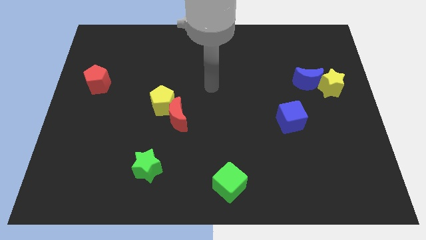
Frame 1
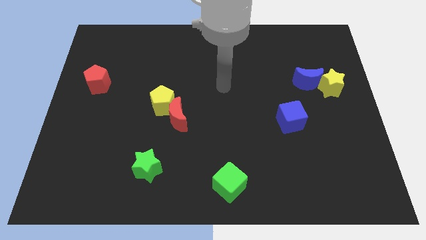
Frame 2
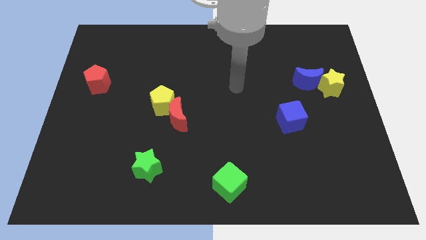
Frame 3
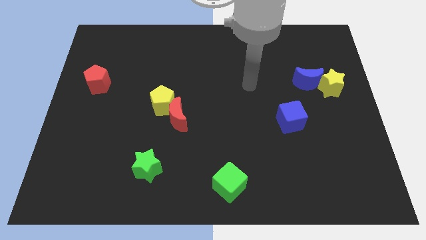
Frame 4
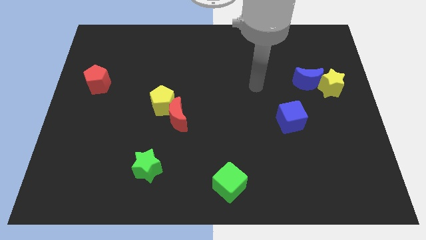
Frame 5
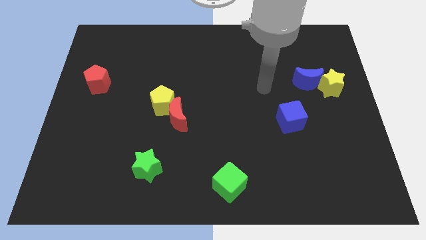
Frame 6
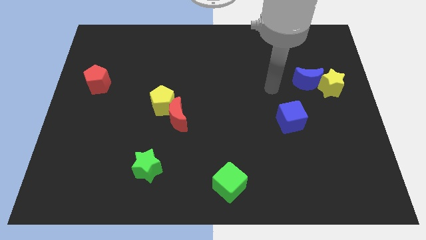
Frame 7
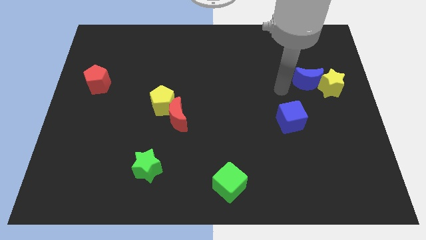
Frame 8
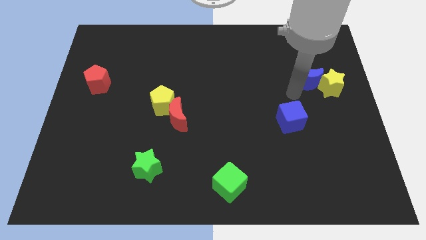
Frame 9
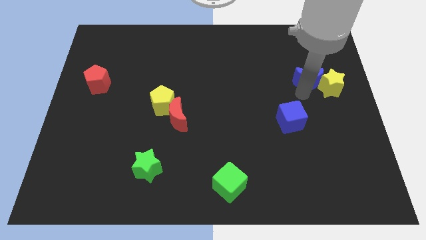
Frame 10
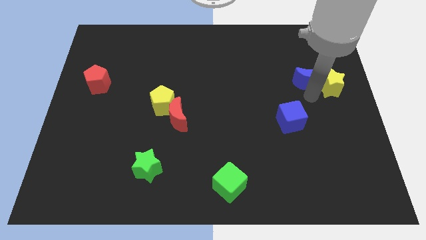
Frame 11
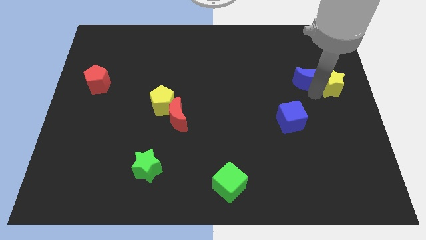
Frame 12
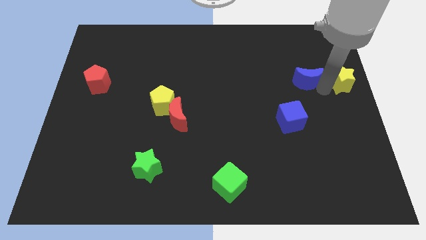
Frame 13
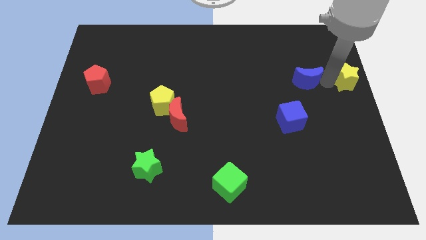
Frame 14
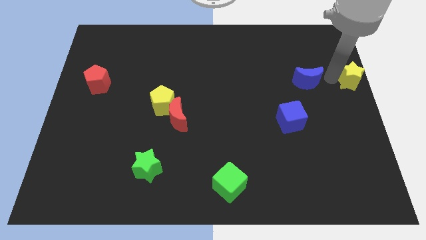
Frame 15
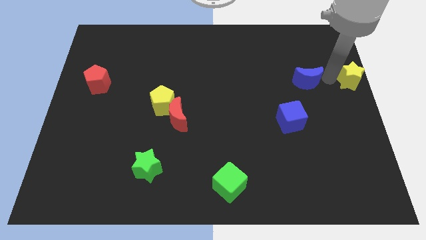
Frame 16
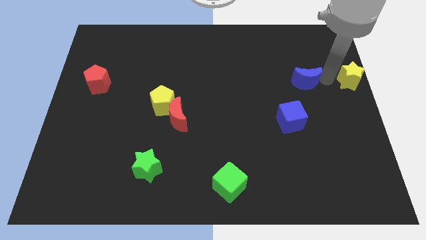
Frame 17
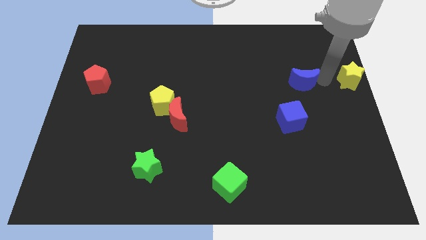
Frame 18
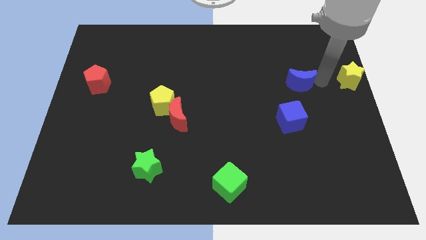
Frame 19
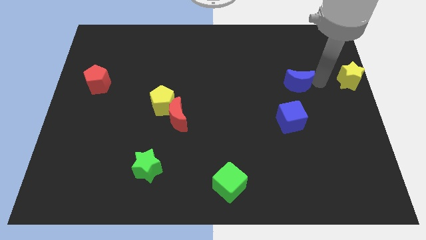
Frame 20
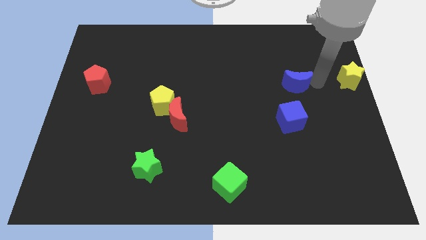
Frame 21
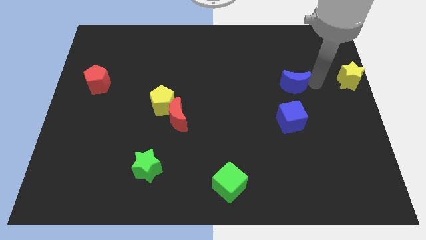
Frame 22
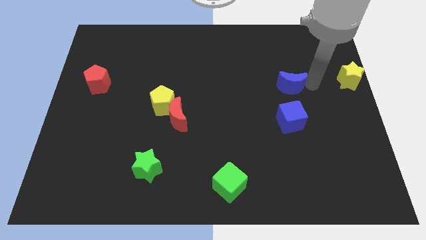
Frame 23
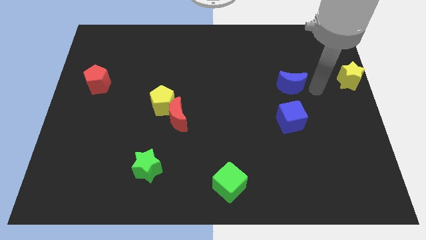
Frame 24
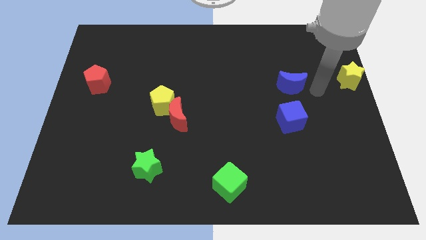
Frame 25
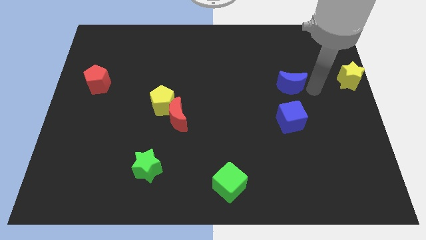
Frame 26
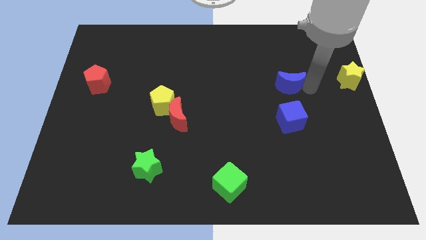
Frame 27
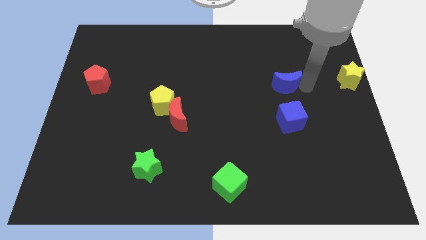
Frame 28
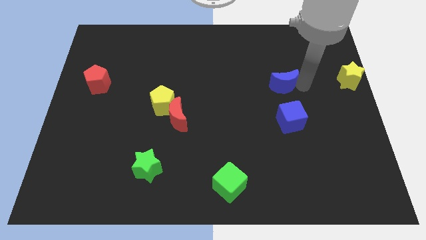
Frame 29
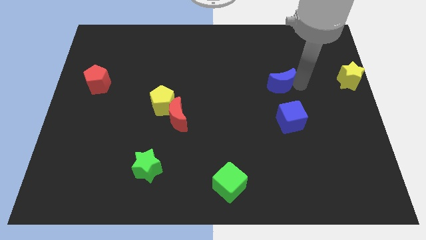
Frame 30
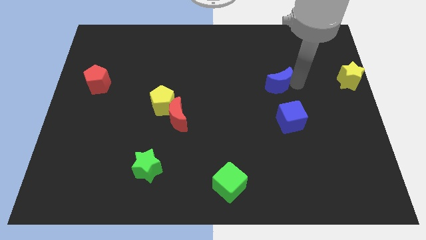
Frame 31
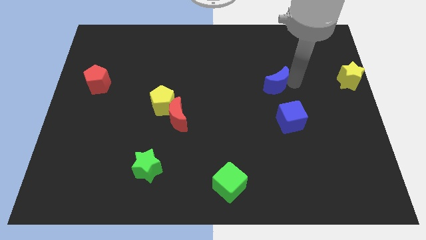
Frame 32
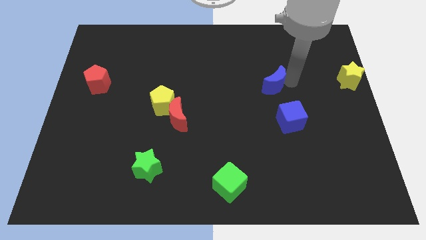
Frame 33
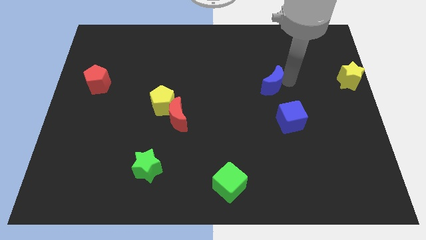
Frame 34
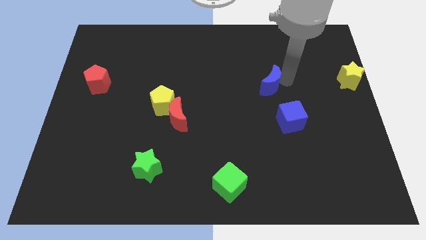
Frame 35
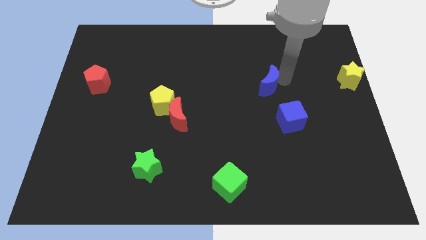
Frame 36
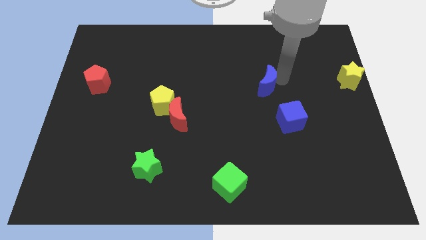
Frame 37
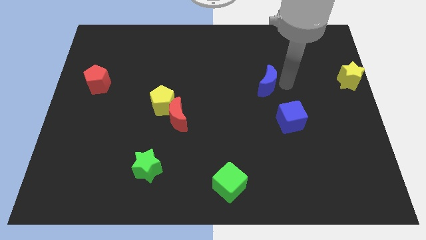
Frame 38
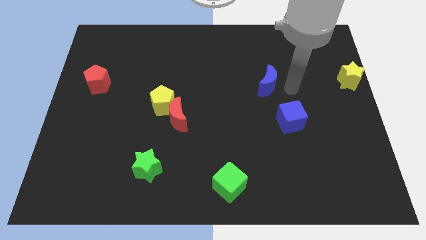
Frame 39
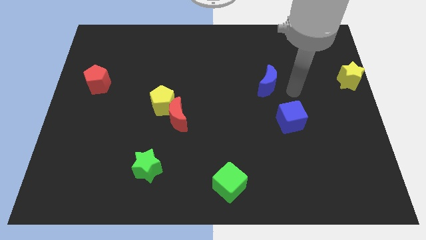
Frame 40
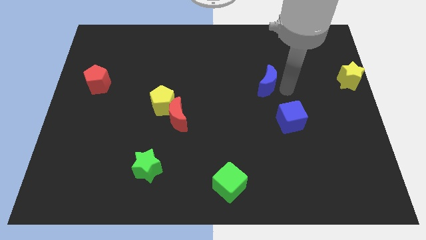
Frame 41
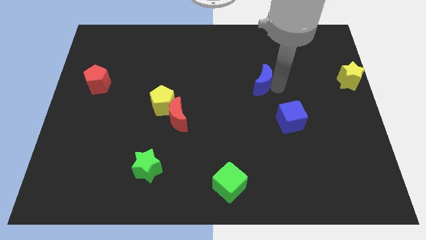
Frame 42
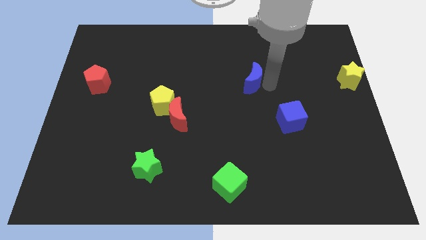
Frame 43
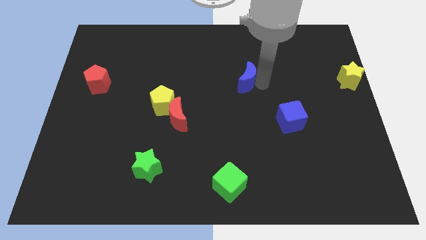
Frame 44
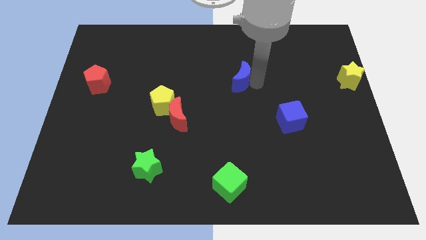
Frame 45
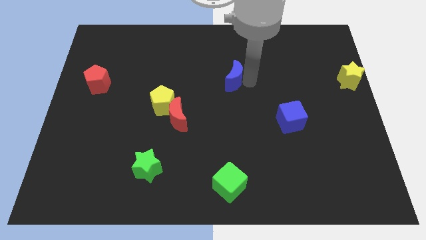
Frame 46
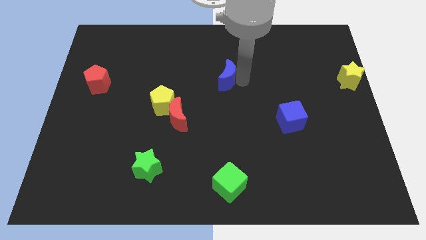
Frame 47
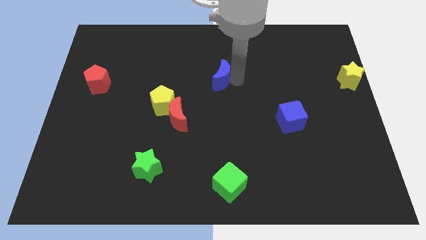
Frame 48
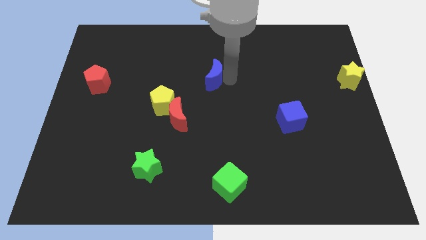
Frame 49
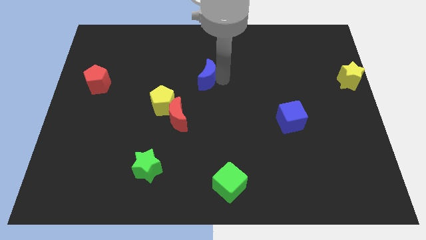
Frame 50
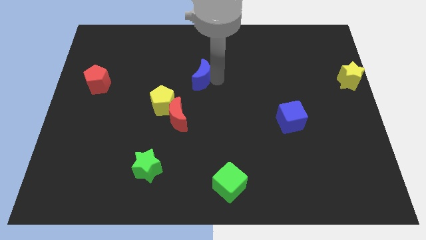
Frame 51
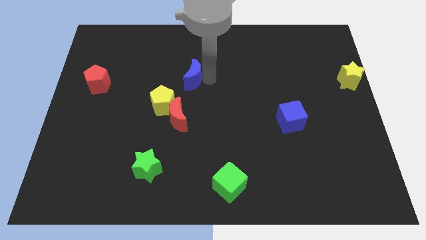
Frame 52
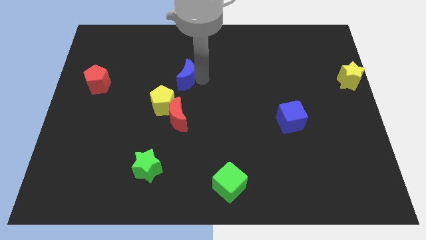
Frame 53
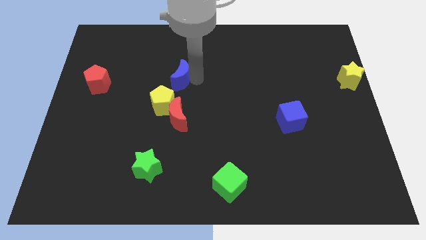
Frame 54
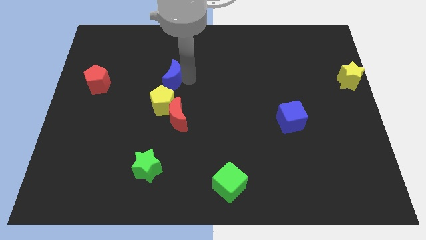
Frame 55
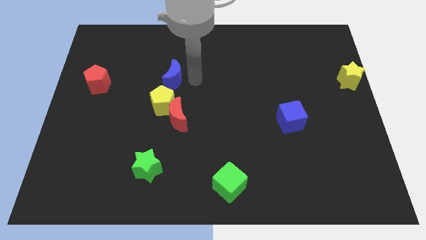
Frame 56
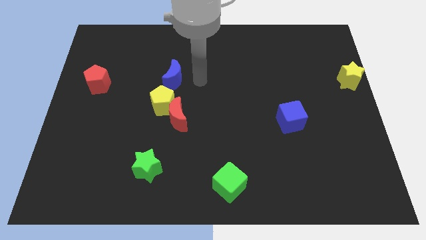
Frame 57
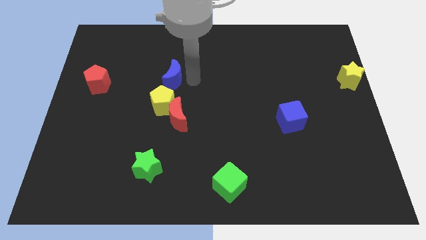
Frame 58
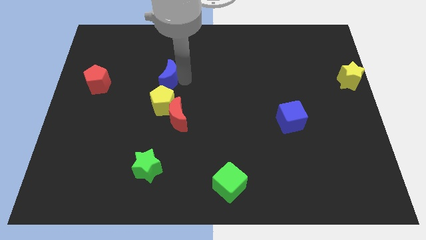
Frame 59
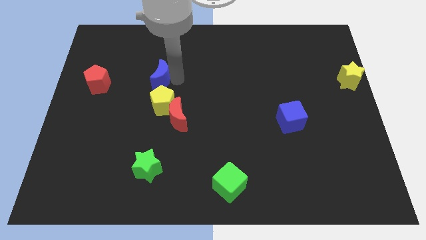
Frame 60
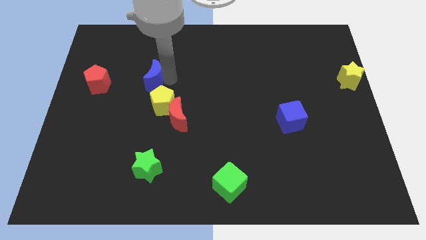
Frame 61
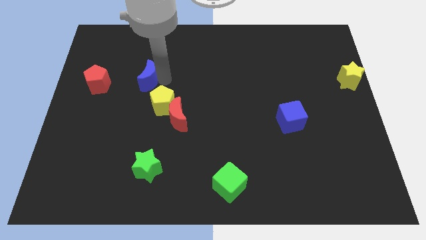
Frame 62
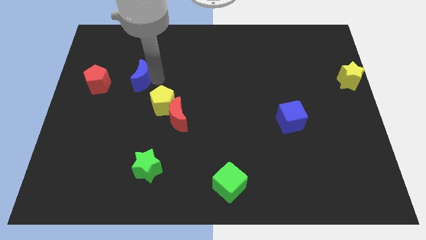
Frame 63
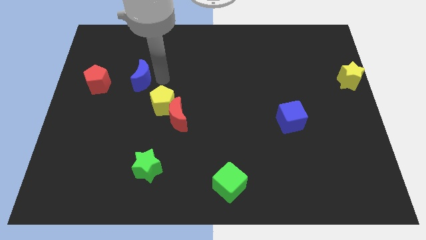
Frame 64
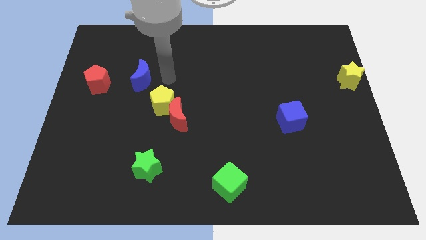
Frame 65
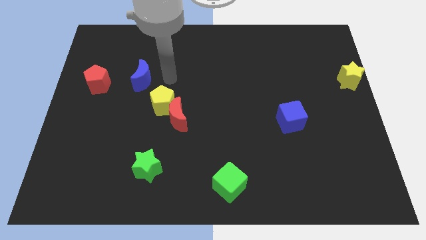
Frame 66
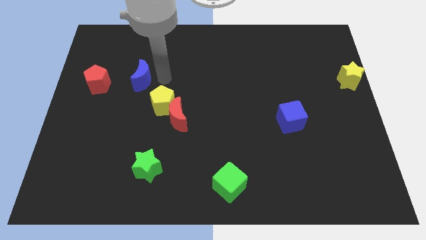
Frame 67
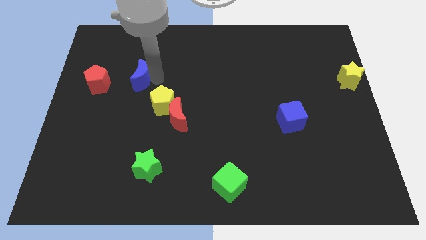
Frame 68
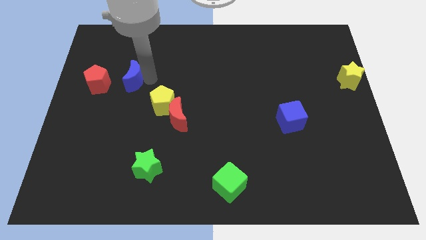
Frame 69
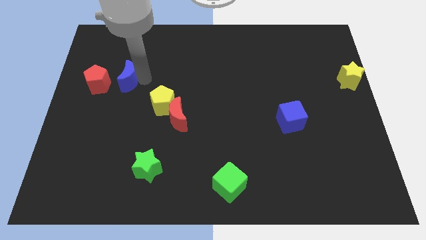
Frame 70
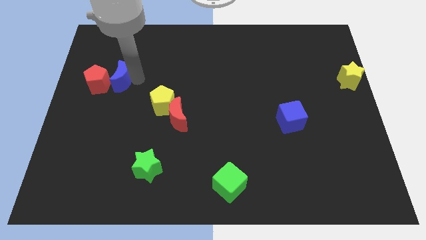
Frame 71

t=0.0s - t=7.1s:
move the blue moon next to the red pentagon

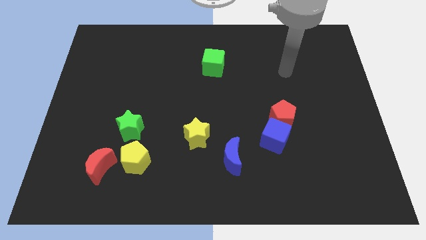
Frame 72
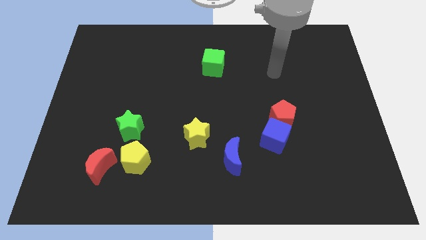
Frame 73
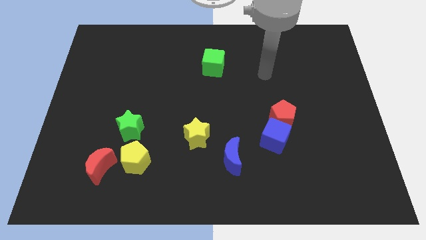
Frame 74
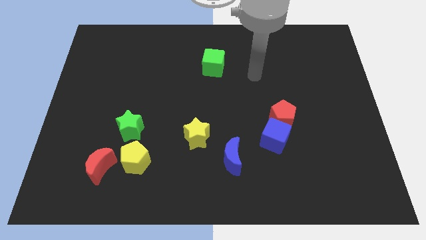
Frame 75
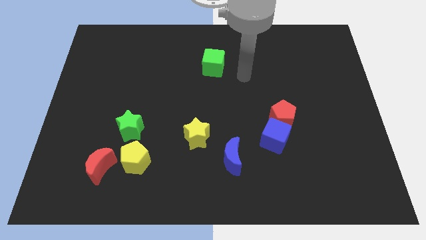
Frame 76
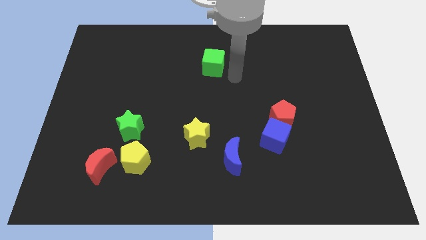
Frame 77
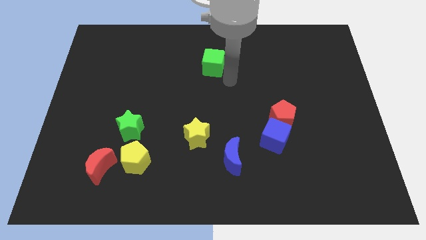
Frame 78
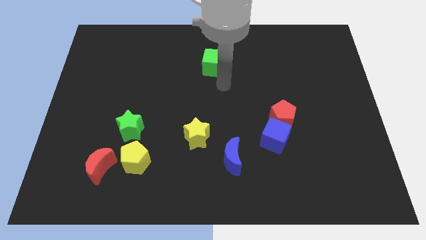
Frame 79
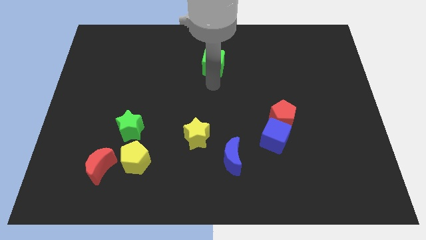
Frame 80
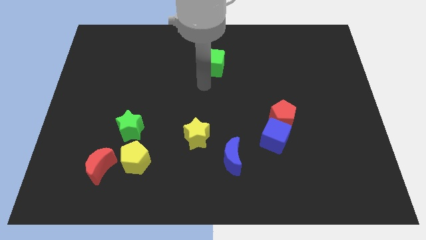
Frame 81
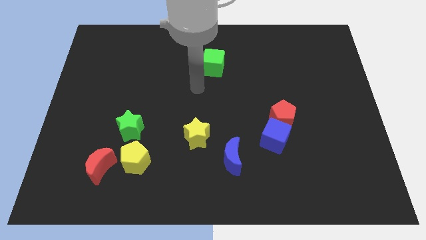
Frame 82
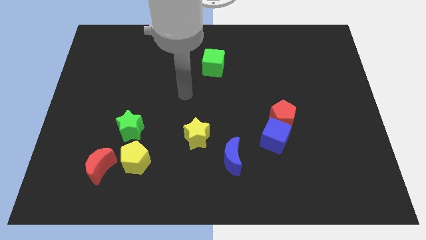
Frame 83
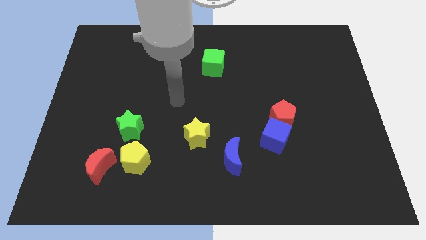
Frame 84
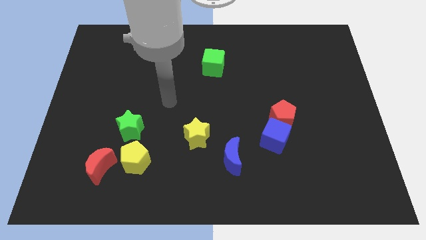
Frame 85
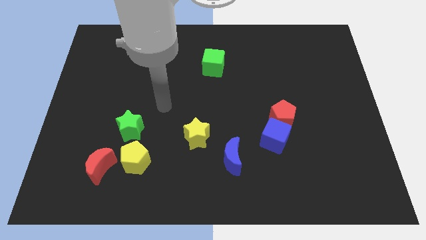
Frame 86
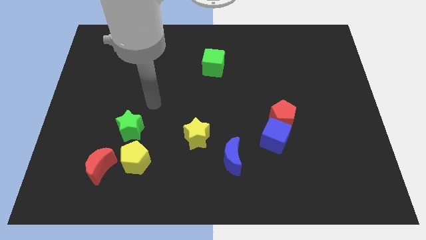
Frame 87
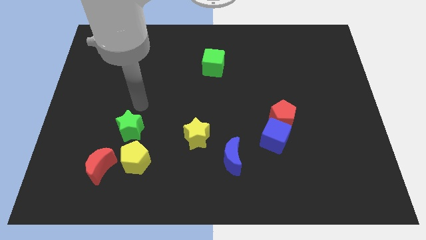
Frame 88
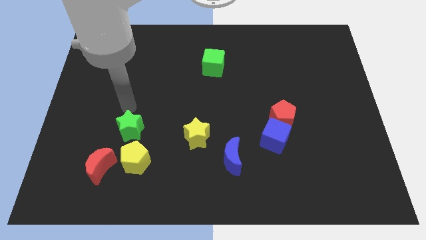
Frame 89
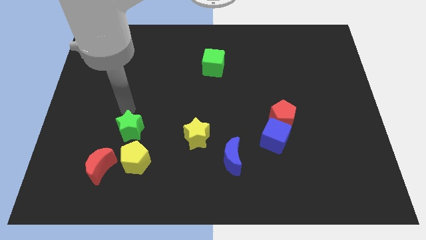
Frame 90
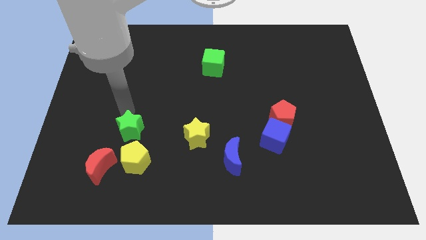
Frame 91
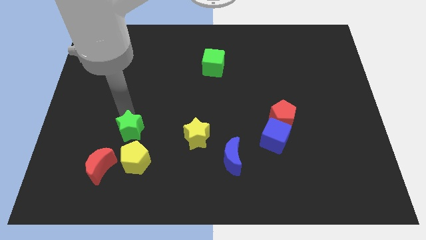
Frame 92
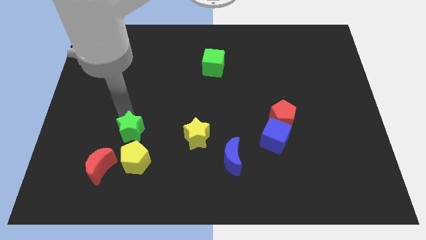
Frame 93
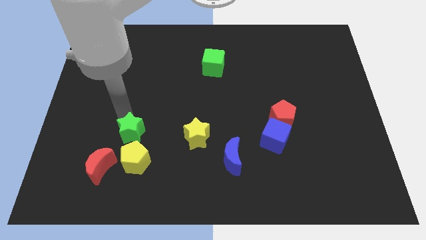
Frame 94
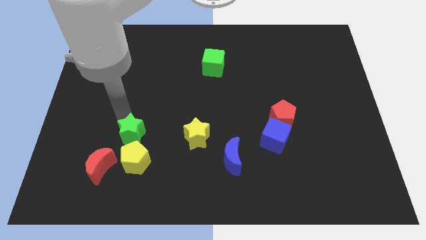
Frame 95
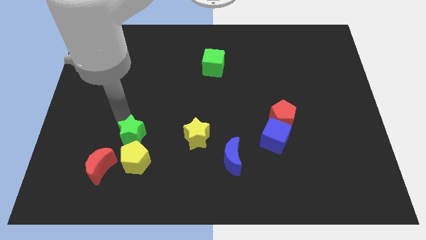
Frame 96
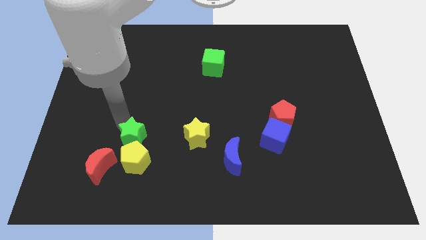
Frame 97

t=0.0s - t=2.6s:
slide the green star next to the yellow pentagon
